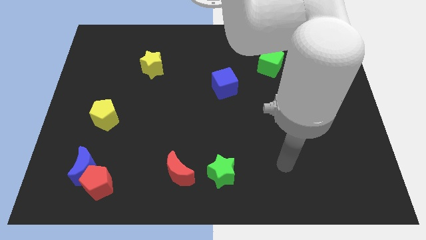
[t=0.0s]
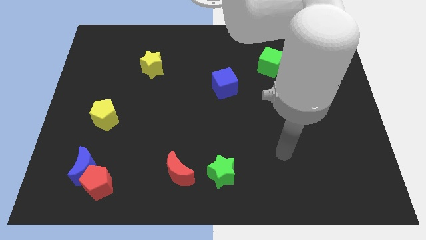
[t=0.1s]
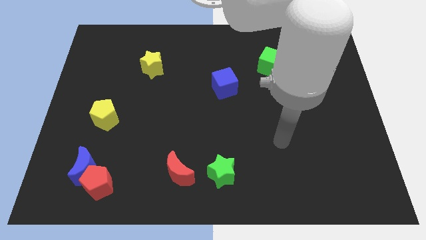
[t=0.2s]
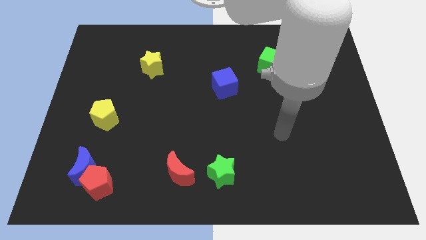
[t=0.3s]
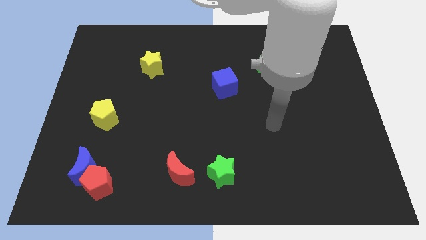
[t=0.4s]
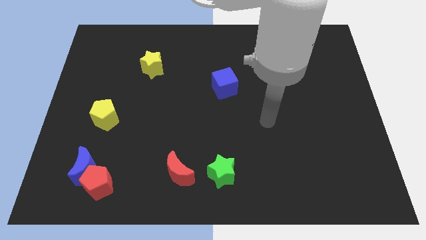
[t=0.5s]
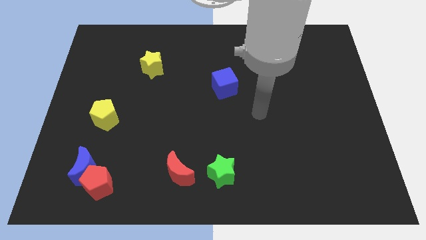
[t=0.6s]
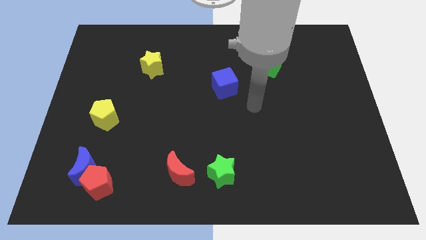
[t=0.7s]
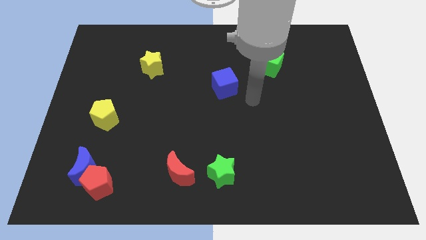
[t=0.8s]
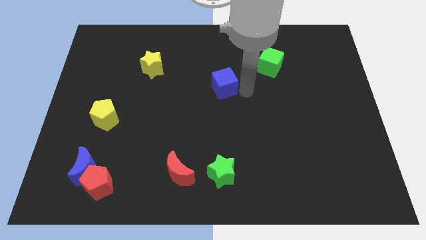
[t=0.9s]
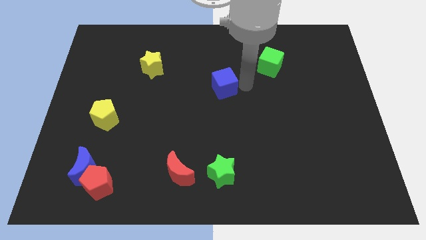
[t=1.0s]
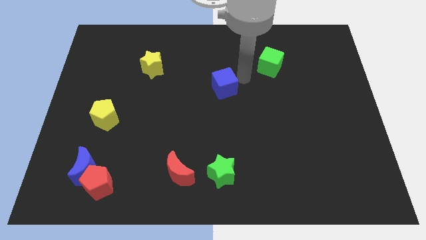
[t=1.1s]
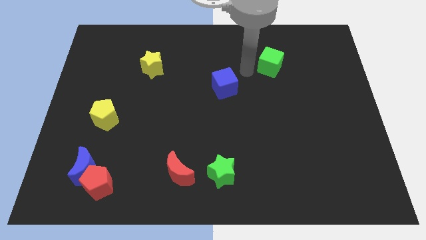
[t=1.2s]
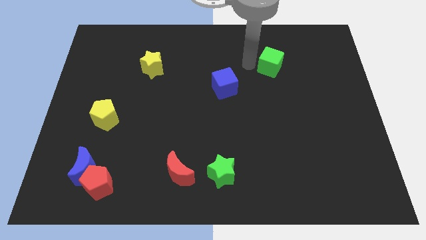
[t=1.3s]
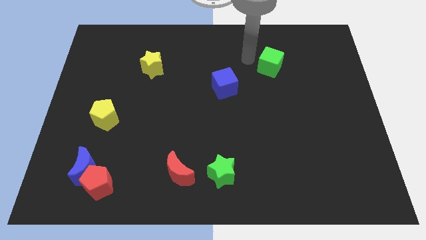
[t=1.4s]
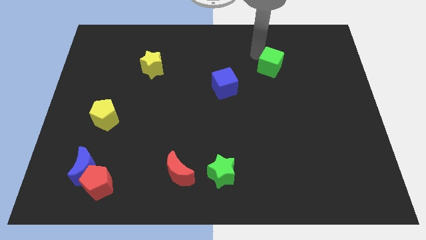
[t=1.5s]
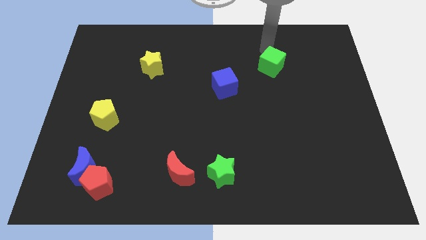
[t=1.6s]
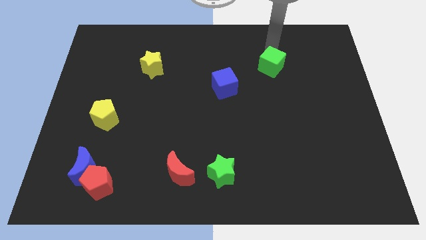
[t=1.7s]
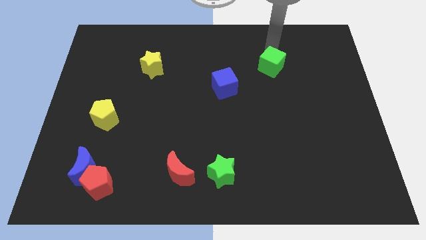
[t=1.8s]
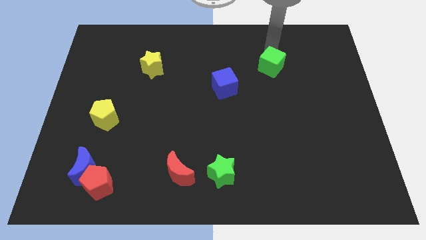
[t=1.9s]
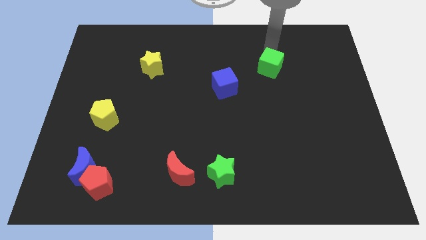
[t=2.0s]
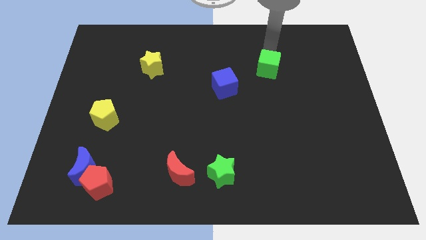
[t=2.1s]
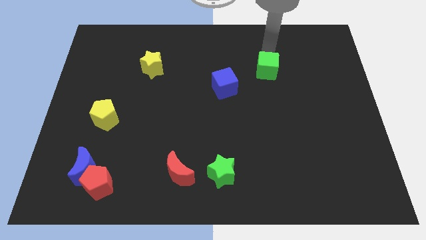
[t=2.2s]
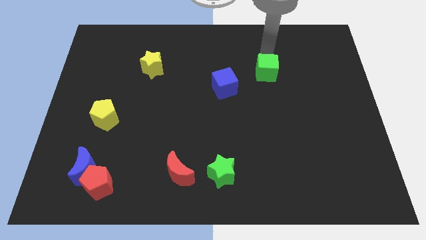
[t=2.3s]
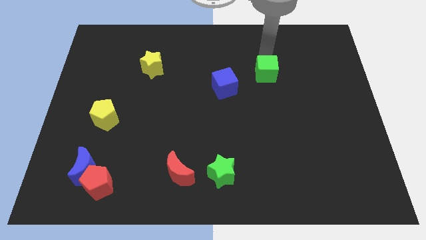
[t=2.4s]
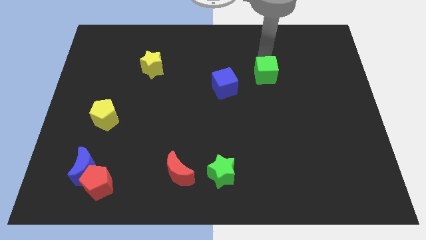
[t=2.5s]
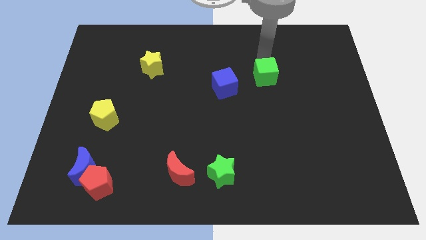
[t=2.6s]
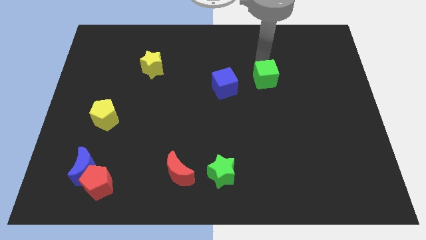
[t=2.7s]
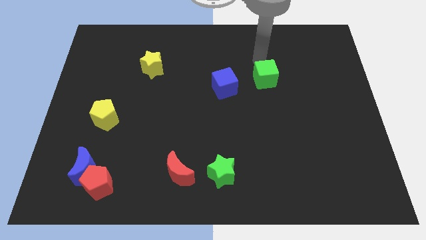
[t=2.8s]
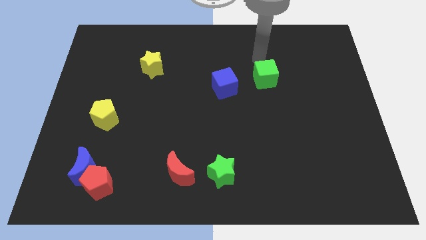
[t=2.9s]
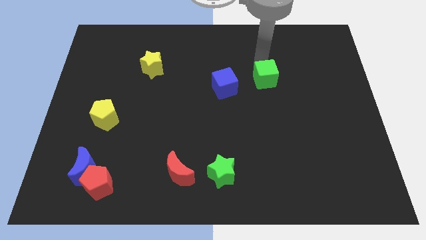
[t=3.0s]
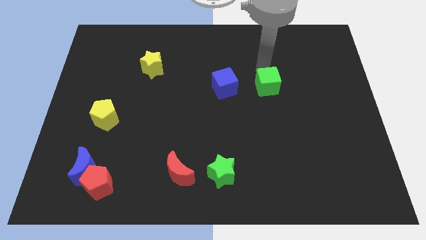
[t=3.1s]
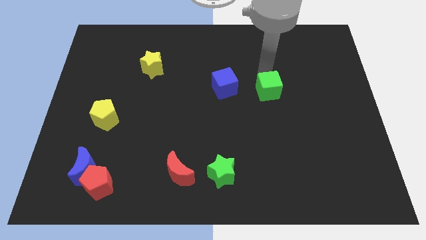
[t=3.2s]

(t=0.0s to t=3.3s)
slightly move the green cube downwards

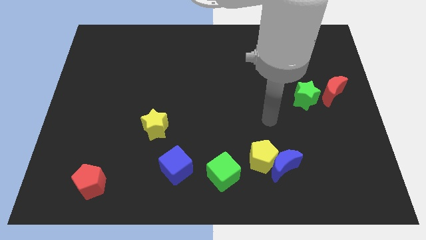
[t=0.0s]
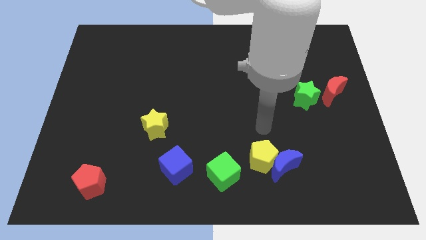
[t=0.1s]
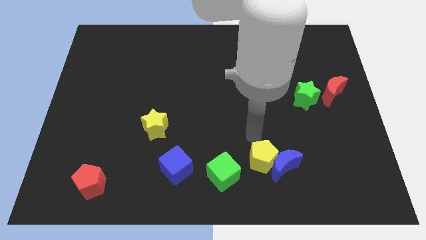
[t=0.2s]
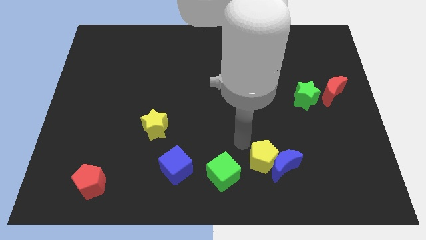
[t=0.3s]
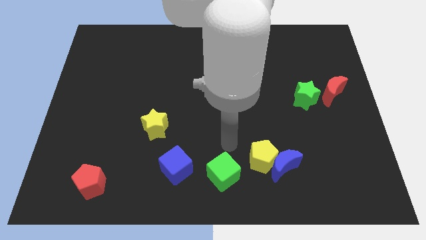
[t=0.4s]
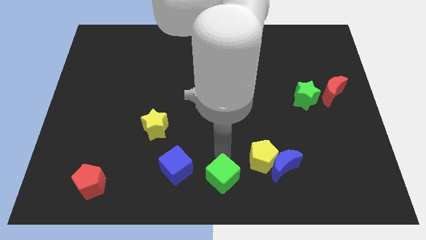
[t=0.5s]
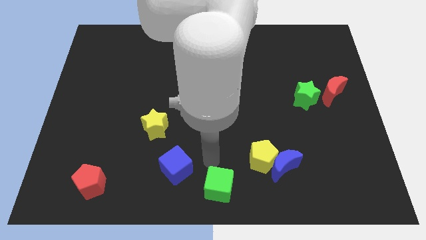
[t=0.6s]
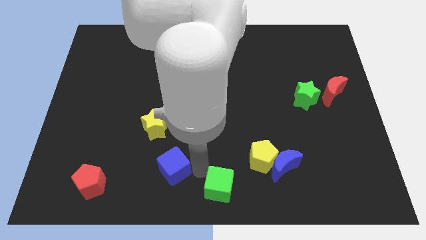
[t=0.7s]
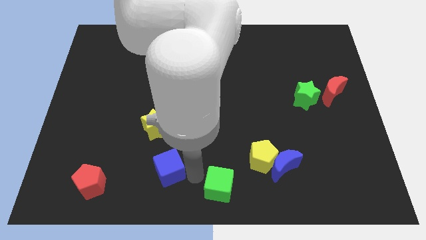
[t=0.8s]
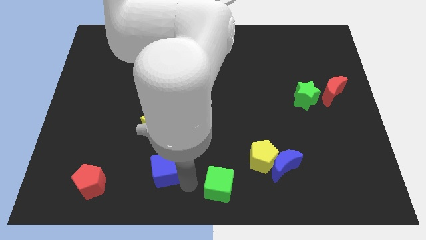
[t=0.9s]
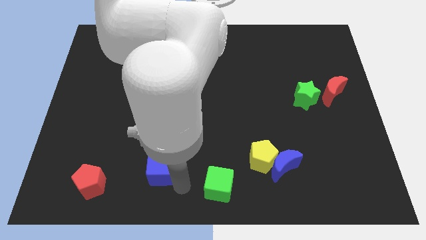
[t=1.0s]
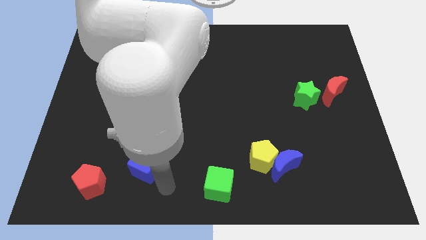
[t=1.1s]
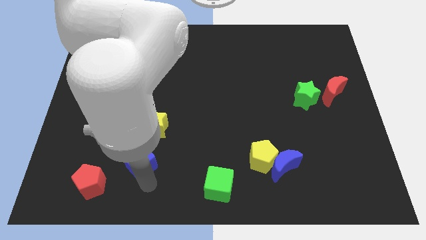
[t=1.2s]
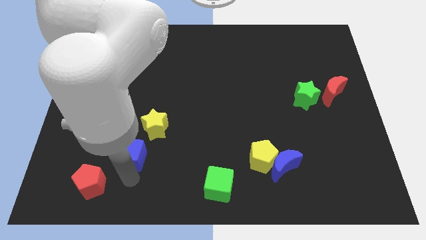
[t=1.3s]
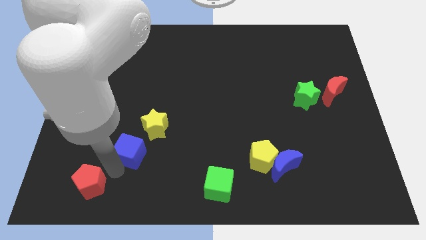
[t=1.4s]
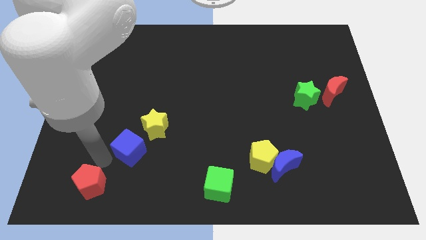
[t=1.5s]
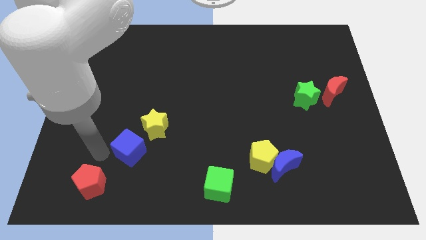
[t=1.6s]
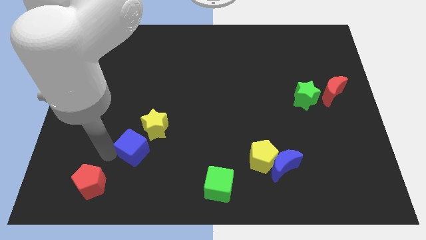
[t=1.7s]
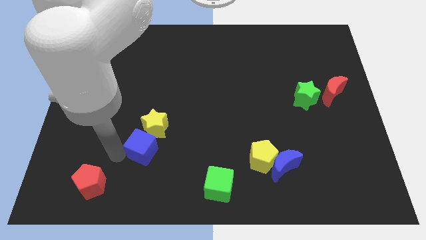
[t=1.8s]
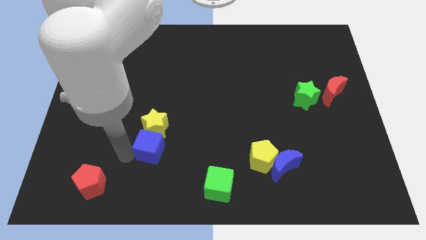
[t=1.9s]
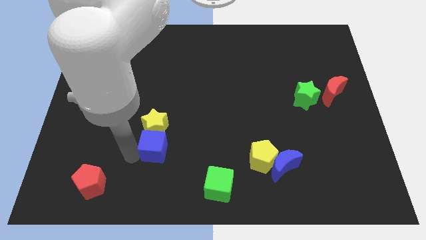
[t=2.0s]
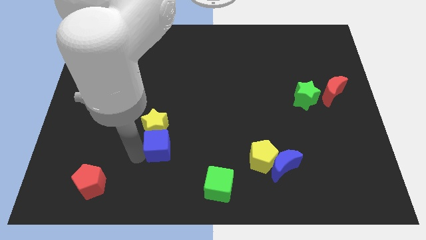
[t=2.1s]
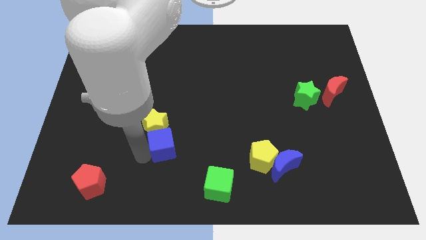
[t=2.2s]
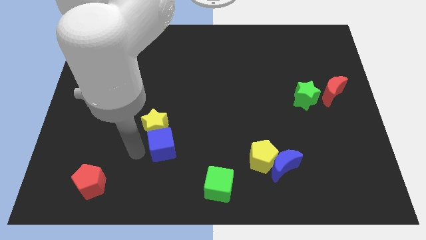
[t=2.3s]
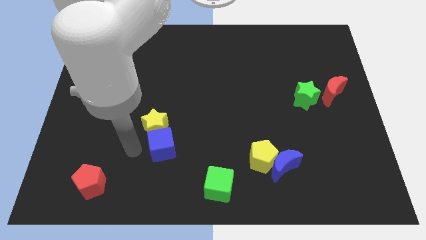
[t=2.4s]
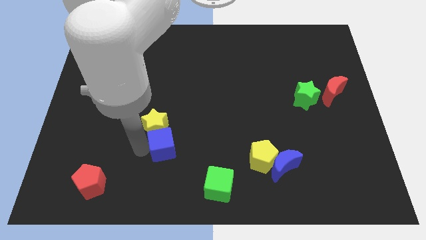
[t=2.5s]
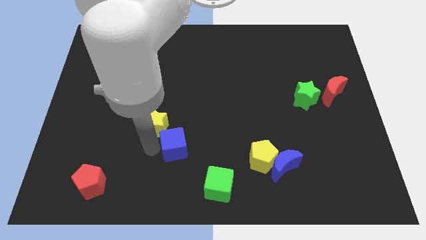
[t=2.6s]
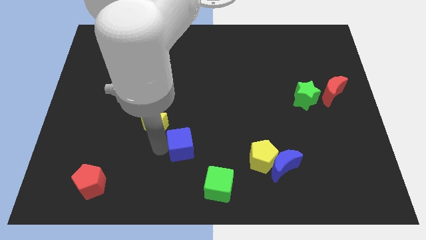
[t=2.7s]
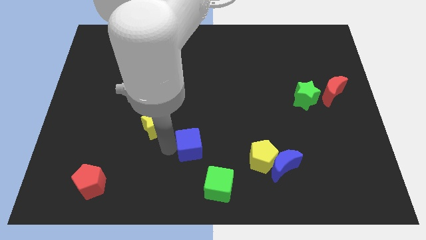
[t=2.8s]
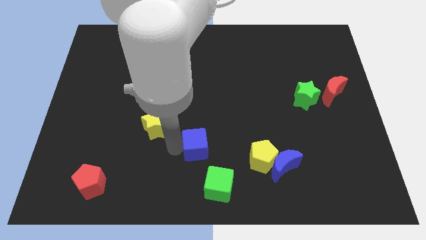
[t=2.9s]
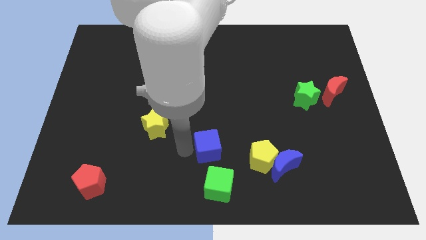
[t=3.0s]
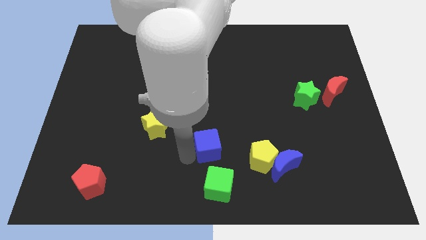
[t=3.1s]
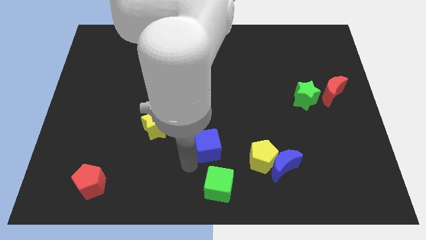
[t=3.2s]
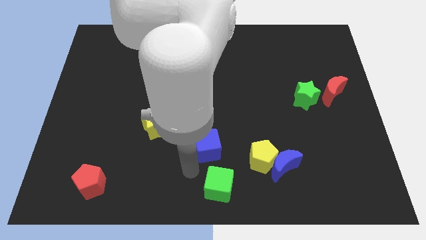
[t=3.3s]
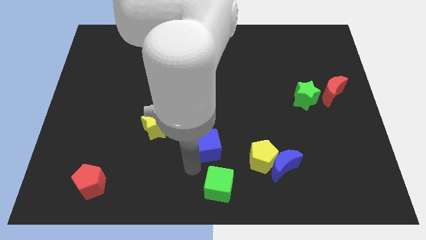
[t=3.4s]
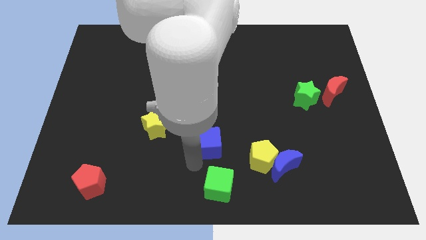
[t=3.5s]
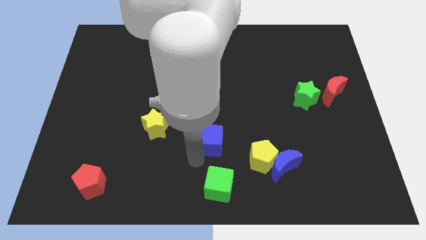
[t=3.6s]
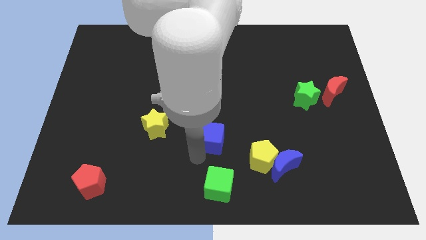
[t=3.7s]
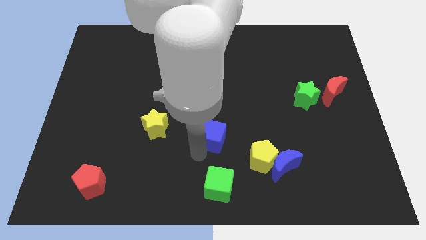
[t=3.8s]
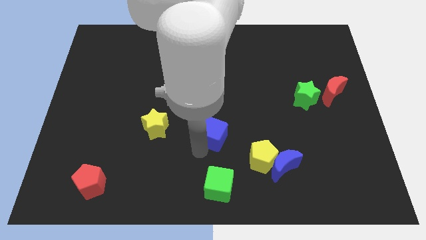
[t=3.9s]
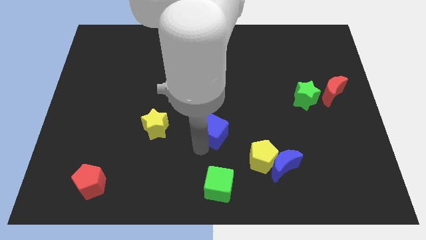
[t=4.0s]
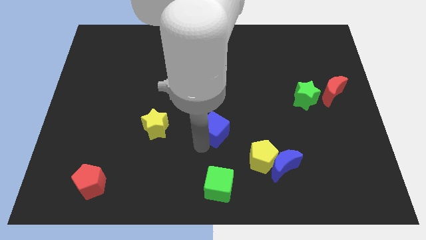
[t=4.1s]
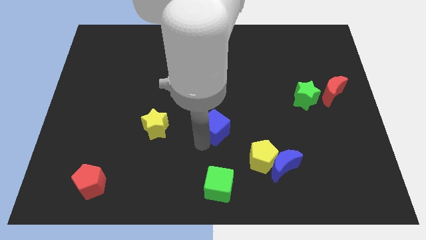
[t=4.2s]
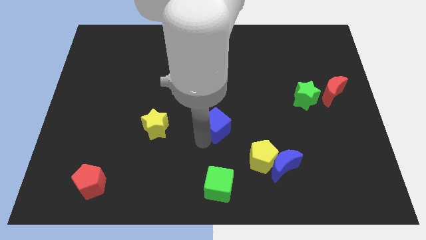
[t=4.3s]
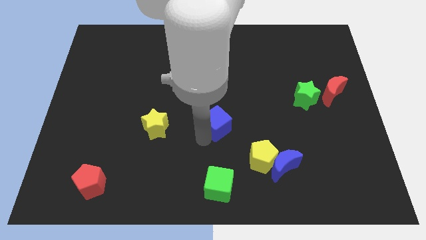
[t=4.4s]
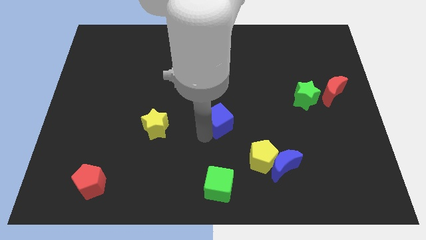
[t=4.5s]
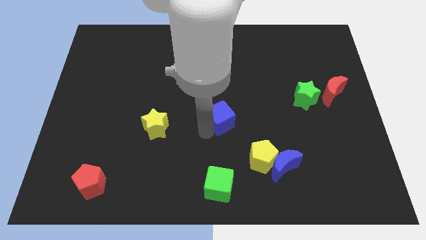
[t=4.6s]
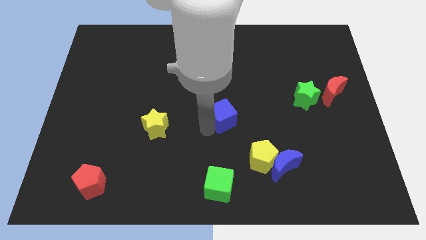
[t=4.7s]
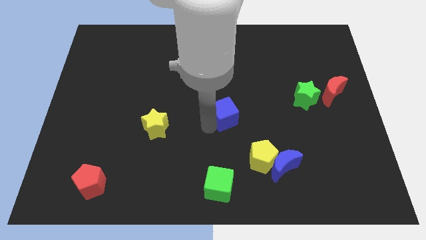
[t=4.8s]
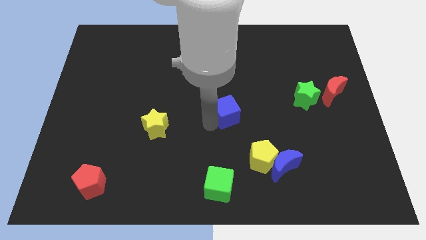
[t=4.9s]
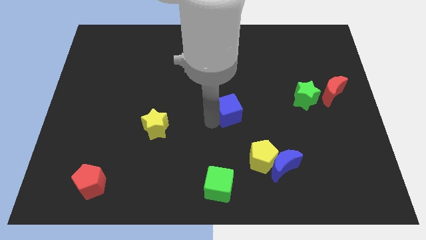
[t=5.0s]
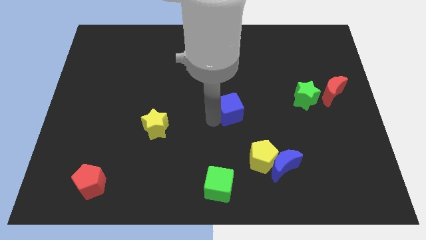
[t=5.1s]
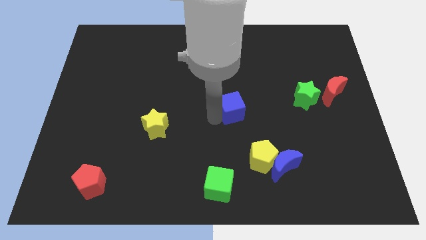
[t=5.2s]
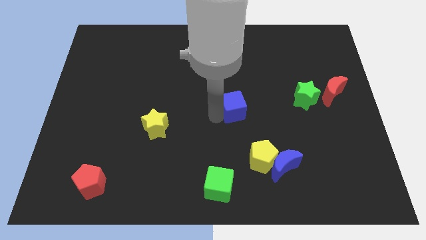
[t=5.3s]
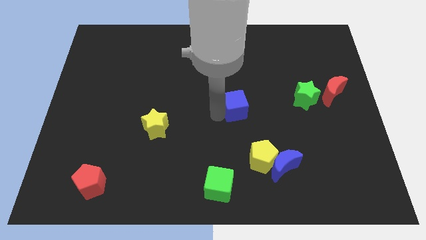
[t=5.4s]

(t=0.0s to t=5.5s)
move the blue cube up and to the right diagonally
